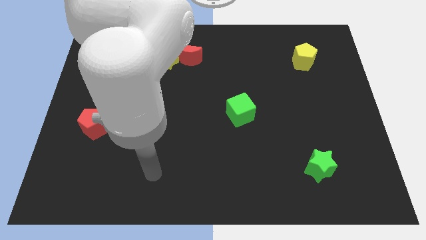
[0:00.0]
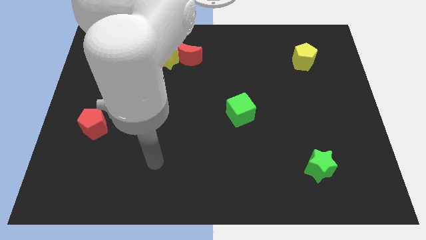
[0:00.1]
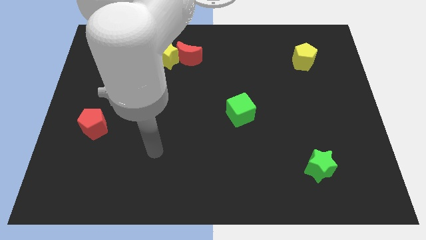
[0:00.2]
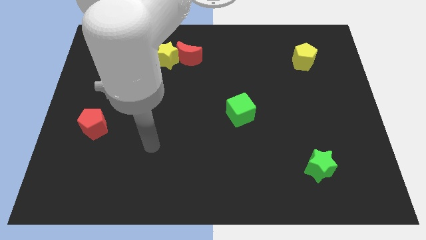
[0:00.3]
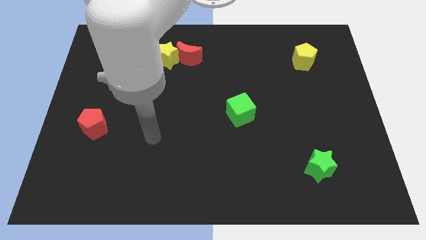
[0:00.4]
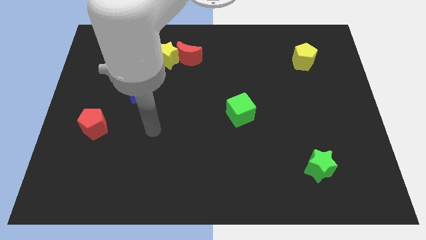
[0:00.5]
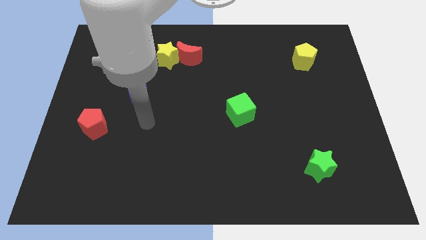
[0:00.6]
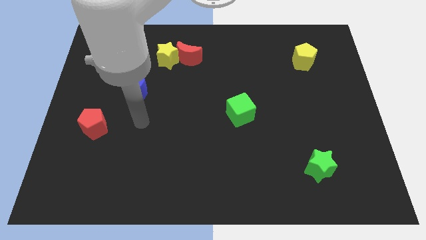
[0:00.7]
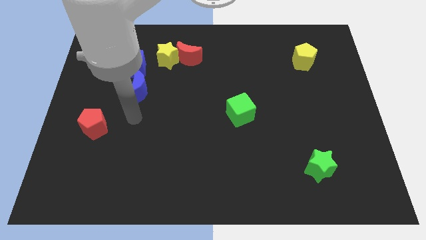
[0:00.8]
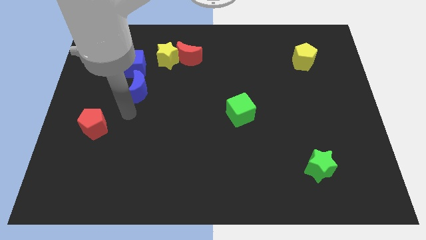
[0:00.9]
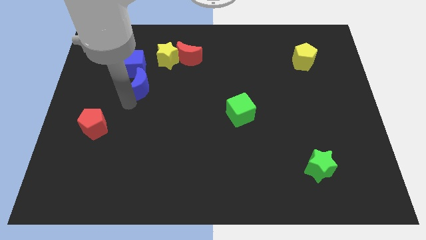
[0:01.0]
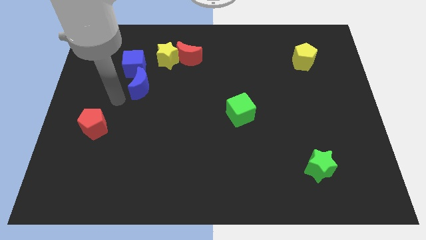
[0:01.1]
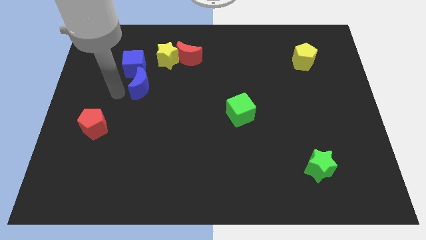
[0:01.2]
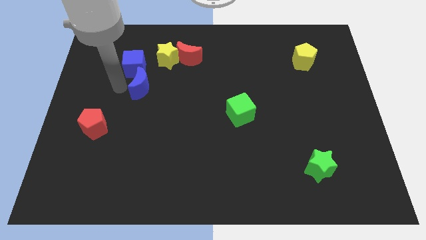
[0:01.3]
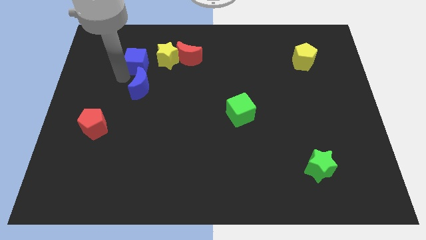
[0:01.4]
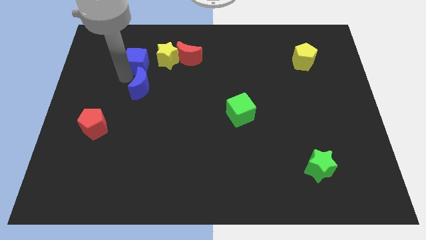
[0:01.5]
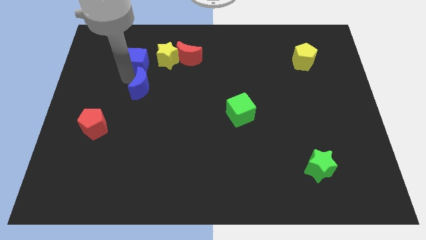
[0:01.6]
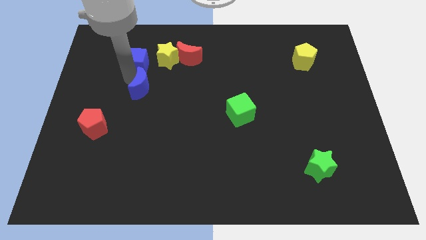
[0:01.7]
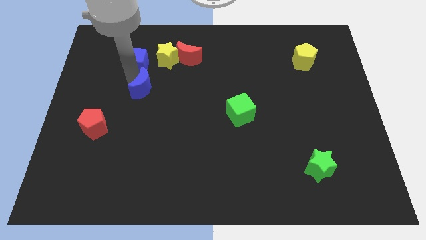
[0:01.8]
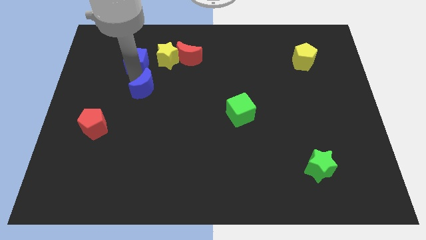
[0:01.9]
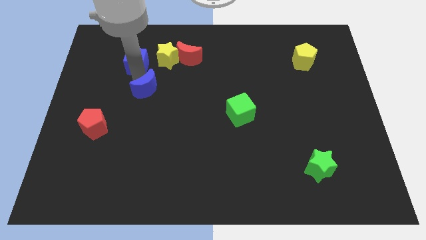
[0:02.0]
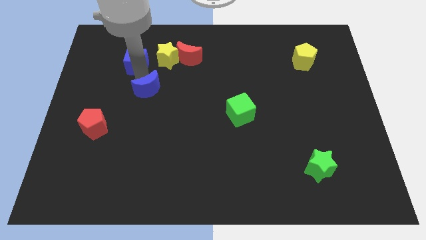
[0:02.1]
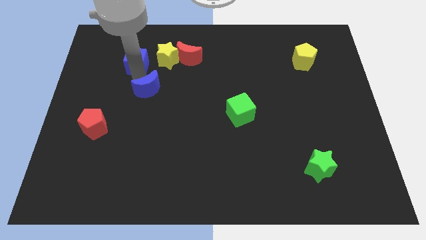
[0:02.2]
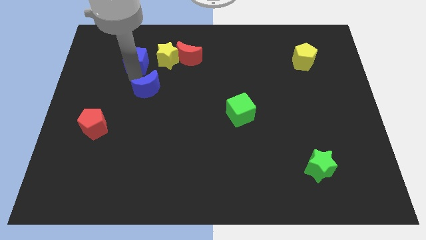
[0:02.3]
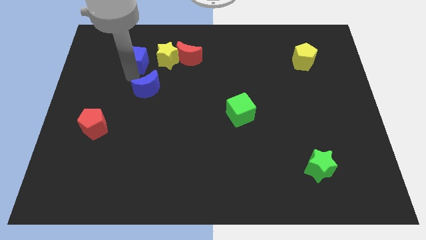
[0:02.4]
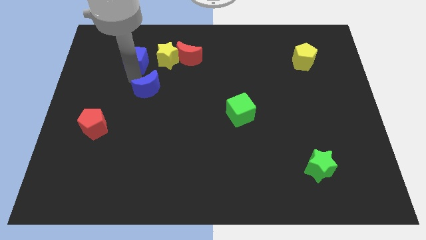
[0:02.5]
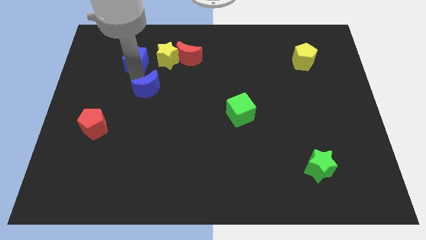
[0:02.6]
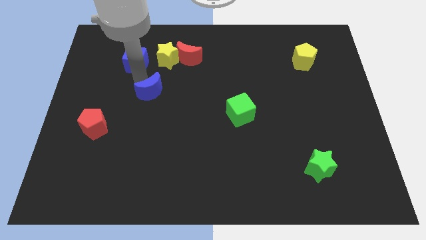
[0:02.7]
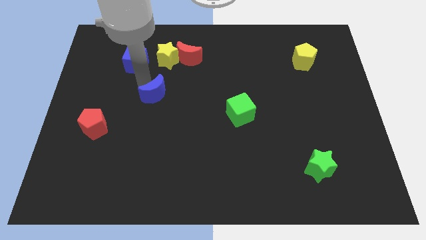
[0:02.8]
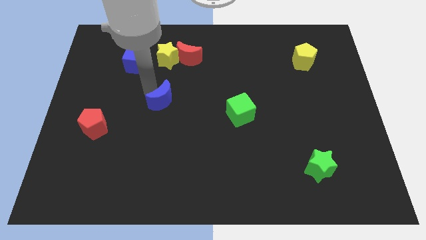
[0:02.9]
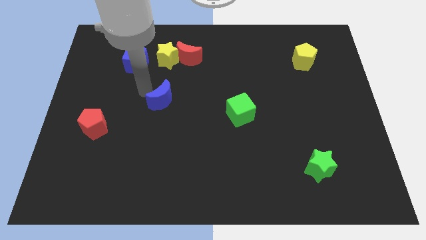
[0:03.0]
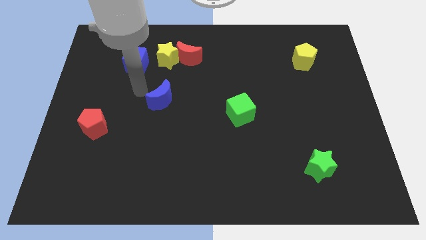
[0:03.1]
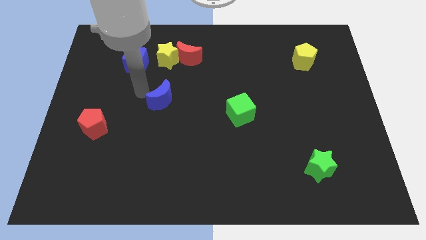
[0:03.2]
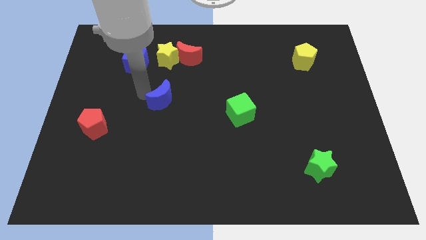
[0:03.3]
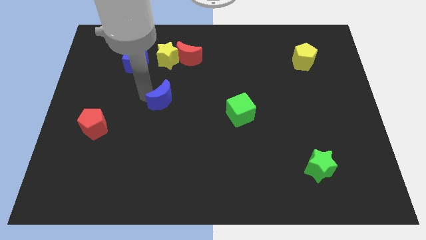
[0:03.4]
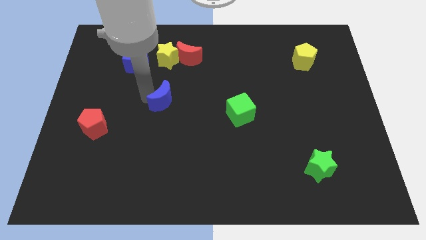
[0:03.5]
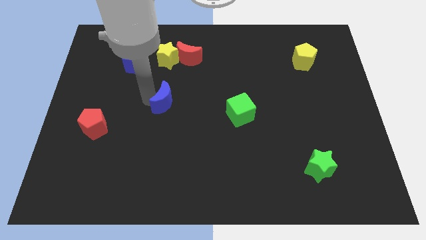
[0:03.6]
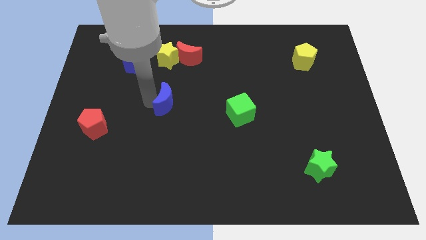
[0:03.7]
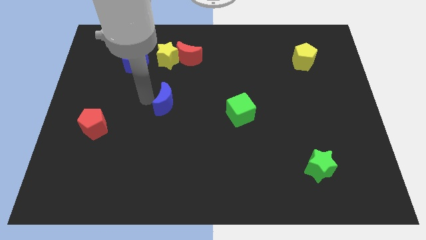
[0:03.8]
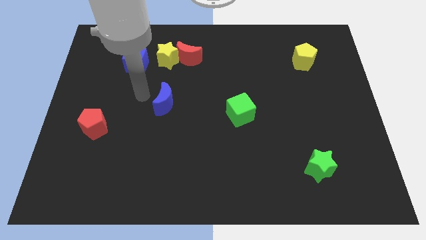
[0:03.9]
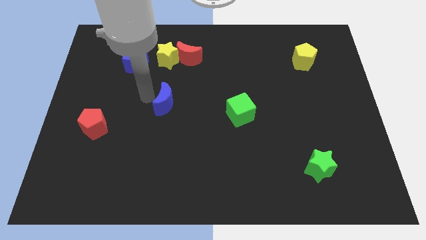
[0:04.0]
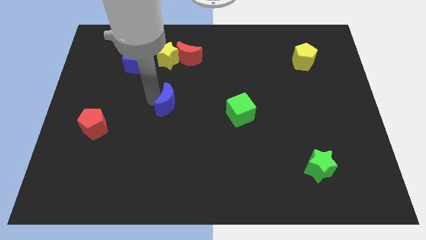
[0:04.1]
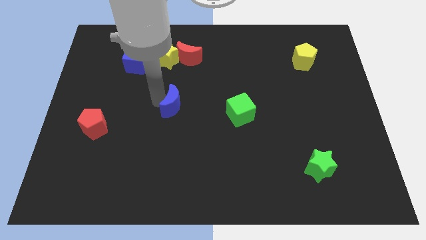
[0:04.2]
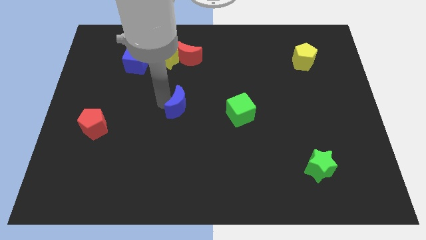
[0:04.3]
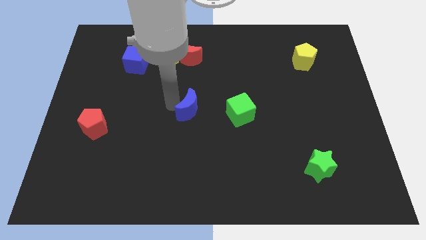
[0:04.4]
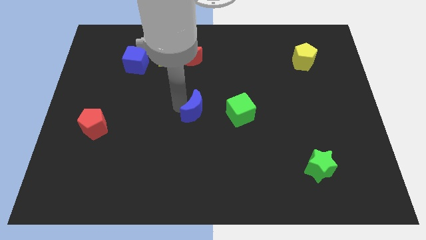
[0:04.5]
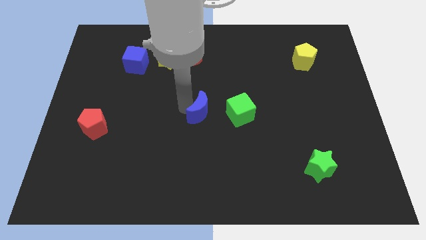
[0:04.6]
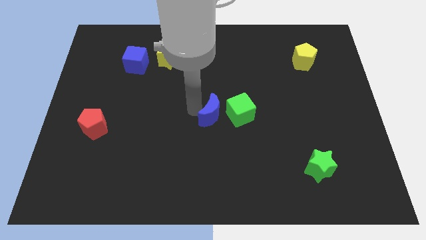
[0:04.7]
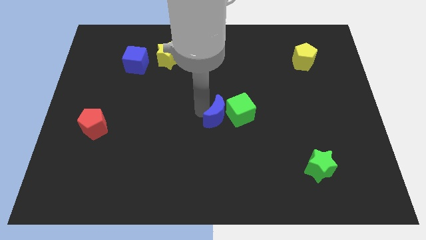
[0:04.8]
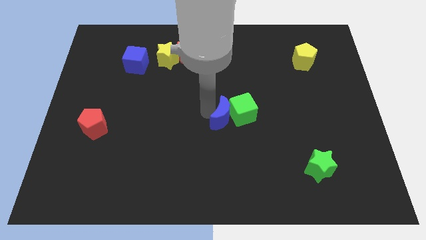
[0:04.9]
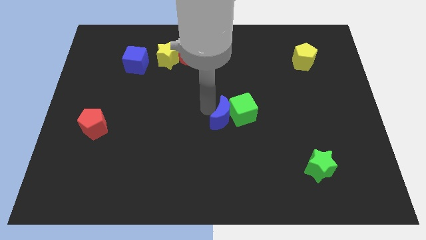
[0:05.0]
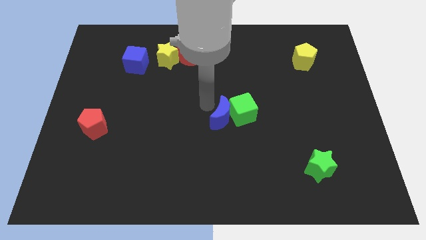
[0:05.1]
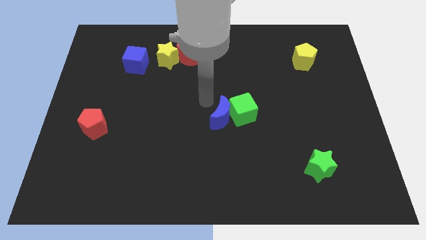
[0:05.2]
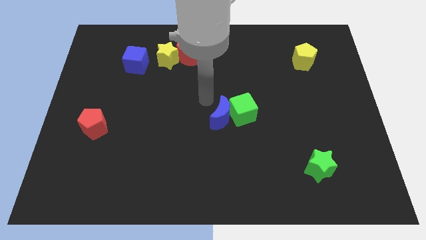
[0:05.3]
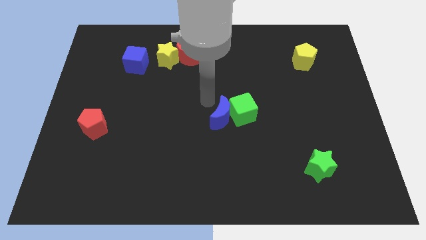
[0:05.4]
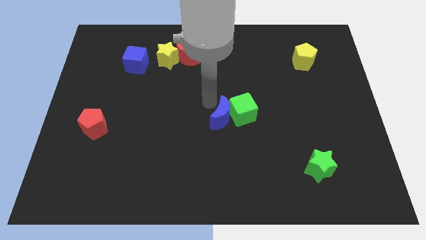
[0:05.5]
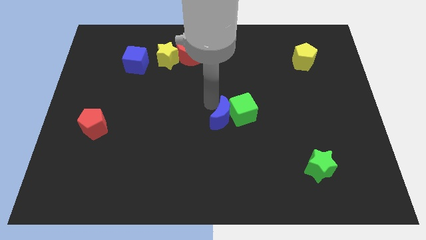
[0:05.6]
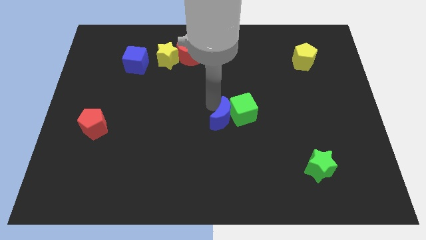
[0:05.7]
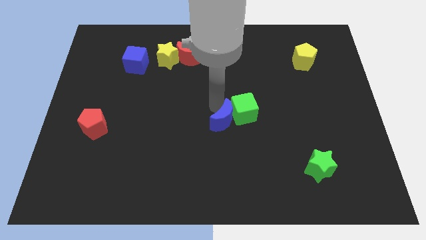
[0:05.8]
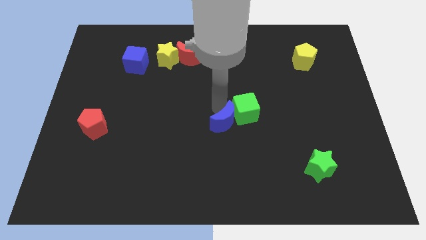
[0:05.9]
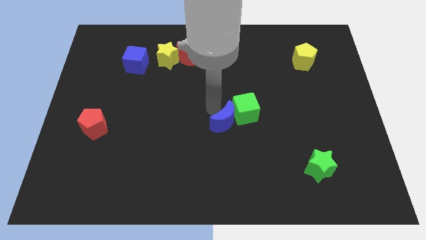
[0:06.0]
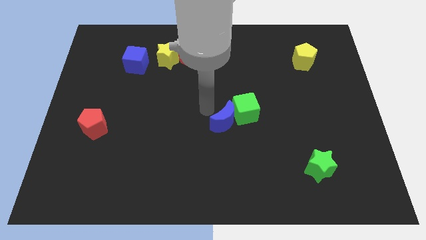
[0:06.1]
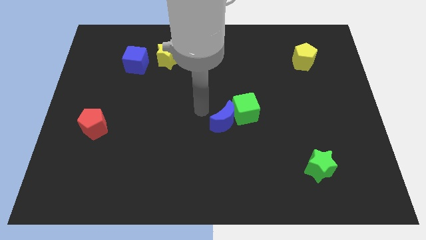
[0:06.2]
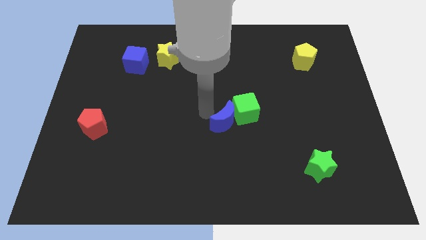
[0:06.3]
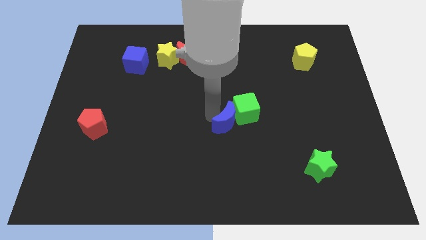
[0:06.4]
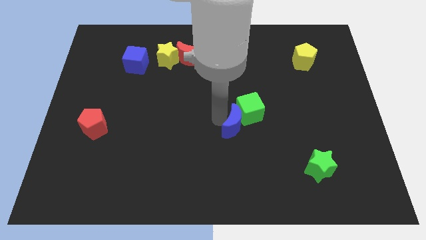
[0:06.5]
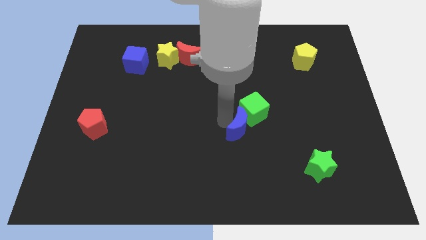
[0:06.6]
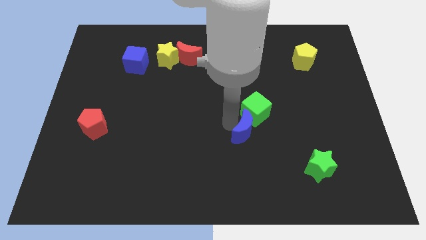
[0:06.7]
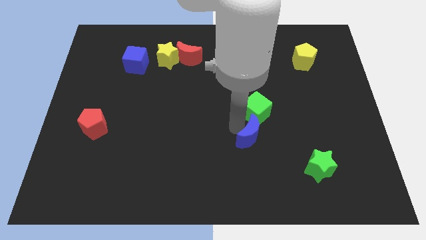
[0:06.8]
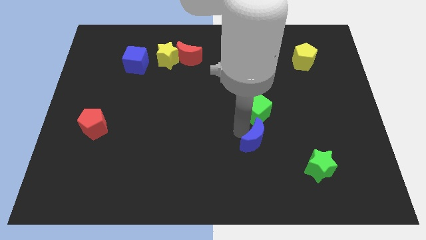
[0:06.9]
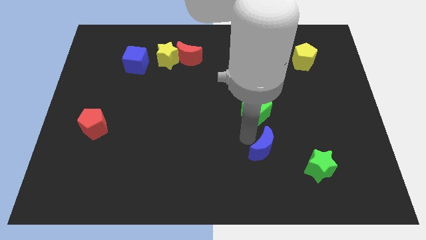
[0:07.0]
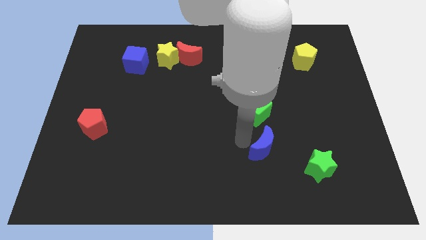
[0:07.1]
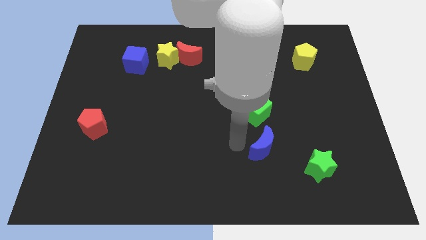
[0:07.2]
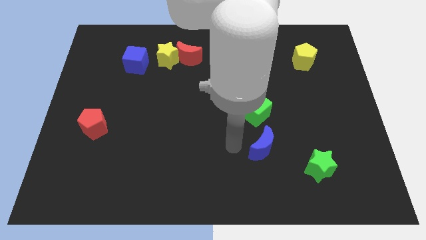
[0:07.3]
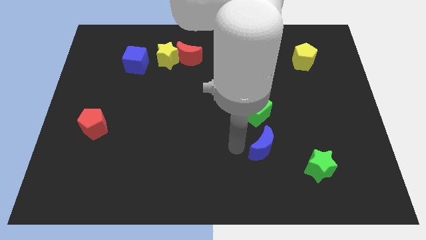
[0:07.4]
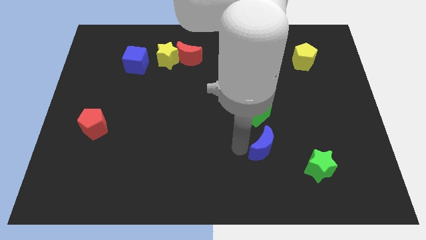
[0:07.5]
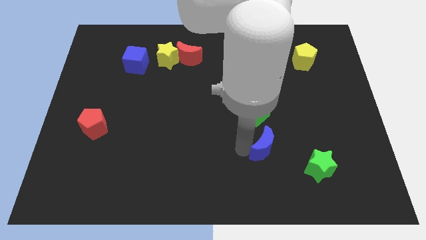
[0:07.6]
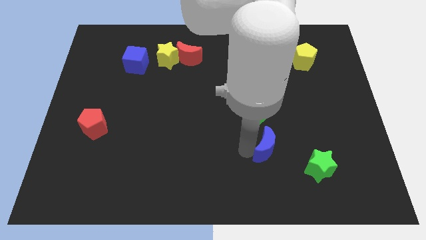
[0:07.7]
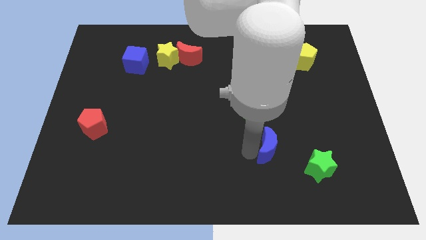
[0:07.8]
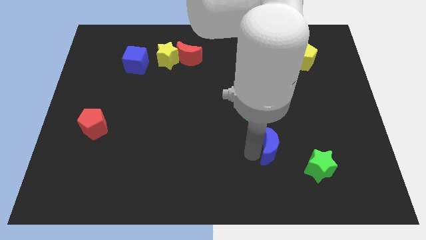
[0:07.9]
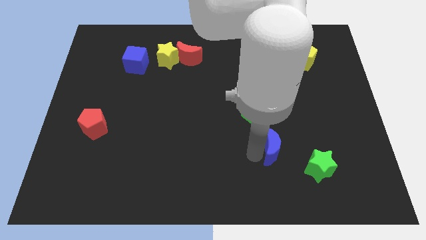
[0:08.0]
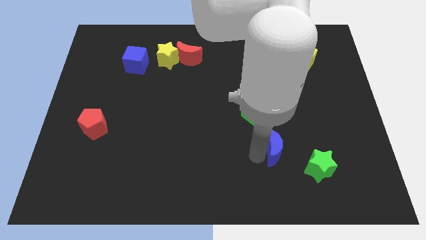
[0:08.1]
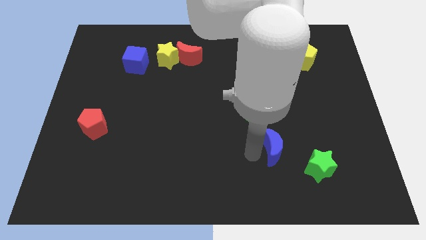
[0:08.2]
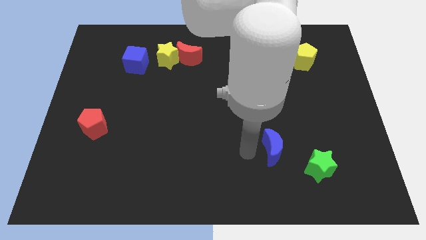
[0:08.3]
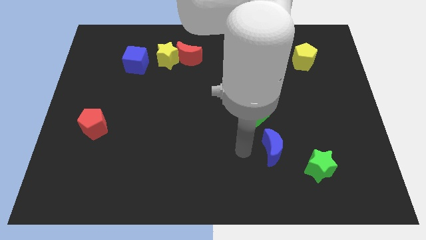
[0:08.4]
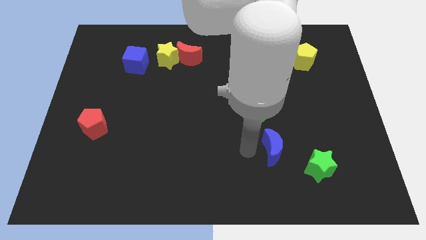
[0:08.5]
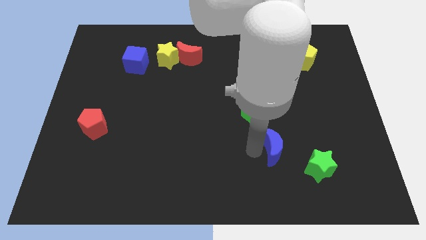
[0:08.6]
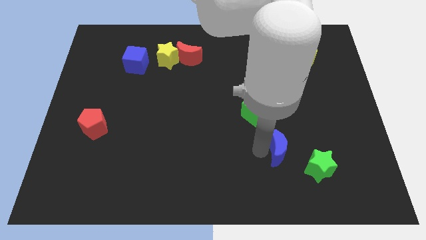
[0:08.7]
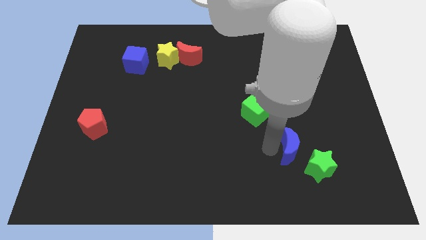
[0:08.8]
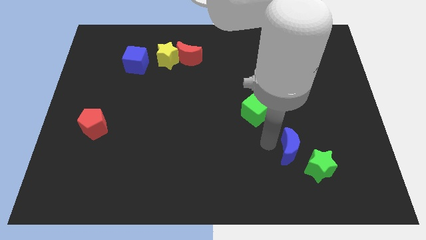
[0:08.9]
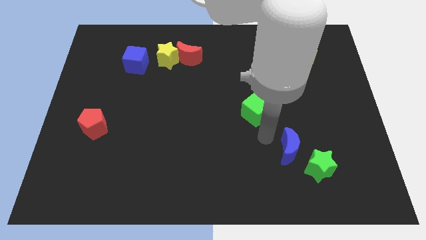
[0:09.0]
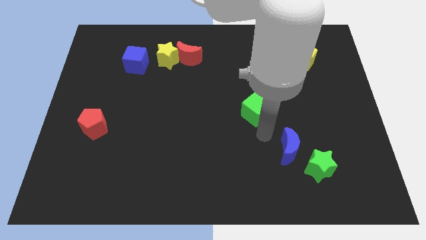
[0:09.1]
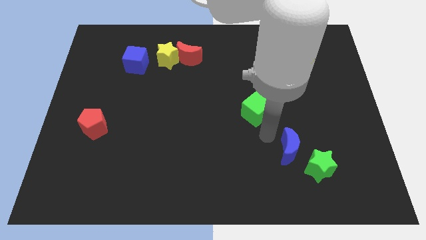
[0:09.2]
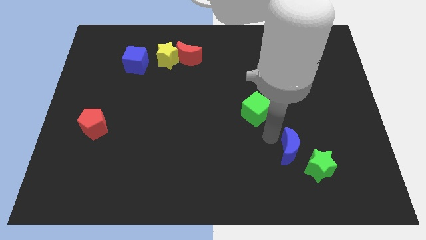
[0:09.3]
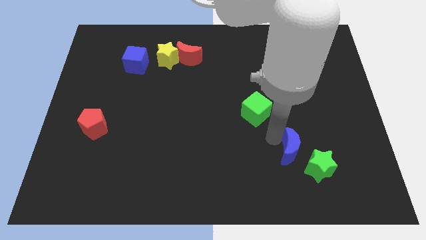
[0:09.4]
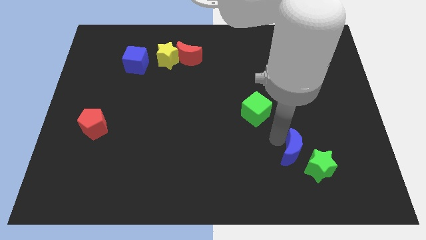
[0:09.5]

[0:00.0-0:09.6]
move the blue moon close to the green star
